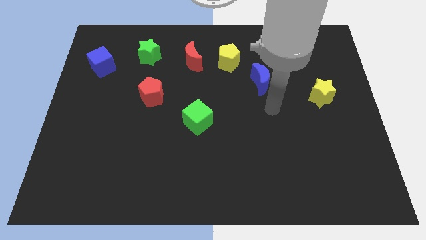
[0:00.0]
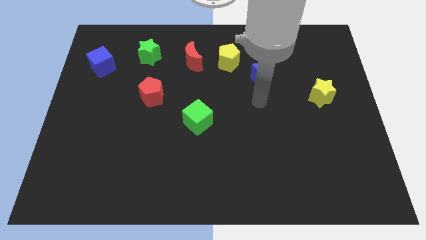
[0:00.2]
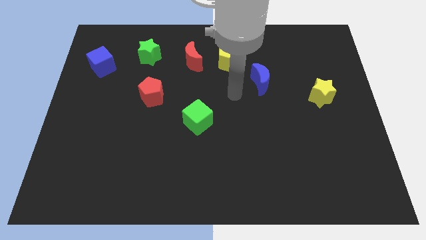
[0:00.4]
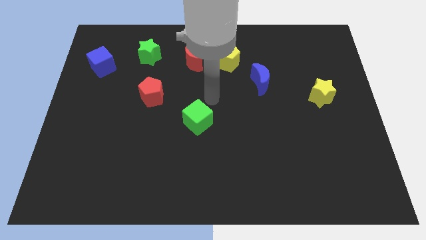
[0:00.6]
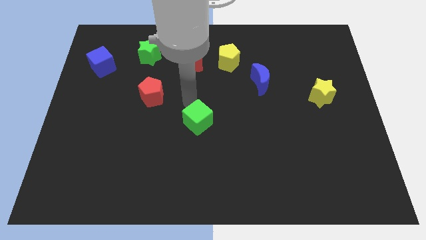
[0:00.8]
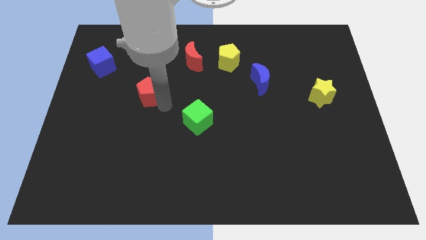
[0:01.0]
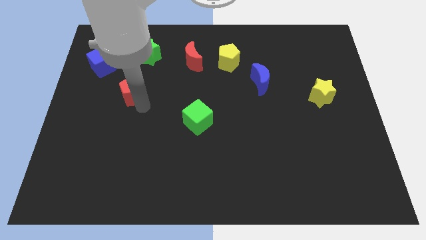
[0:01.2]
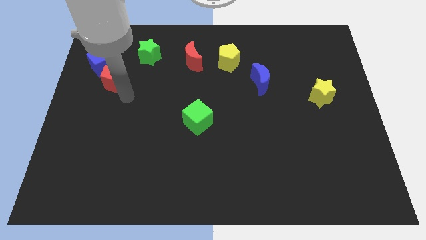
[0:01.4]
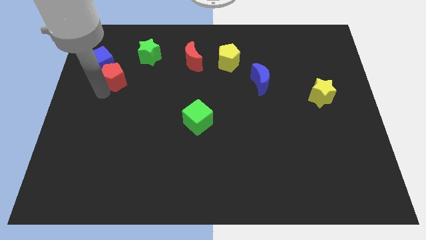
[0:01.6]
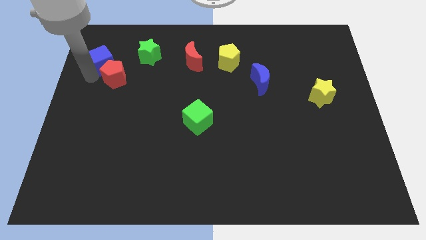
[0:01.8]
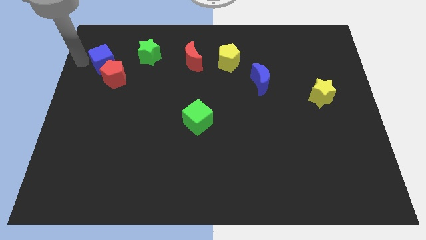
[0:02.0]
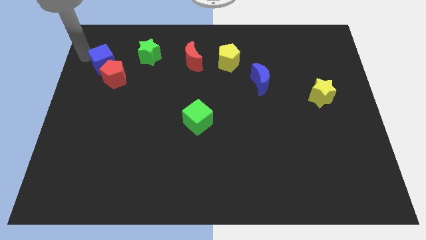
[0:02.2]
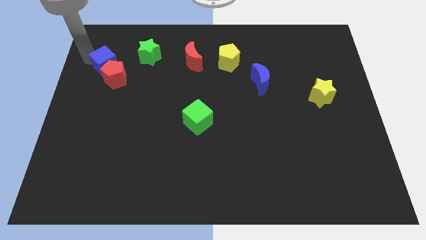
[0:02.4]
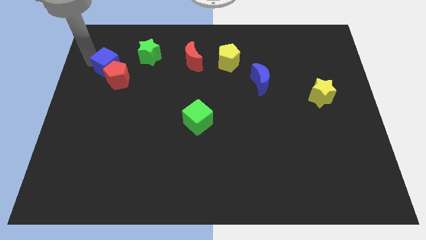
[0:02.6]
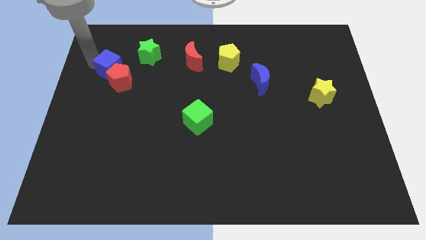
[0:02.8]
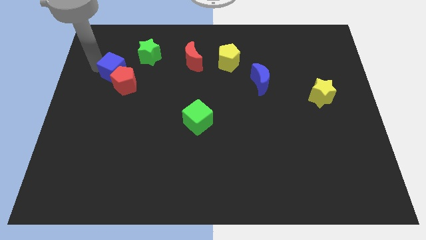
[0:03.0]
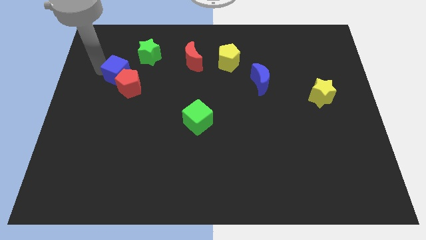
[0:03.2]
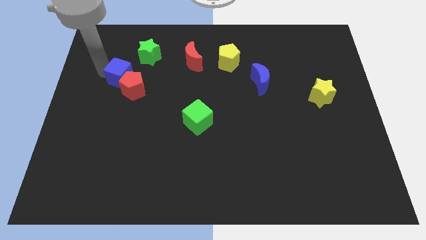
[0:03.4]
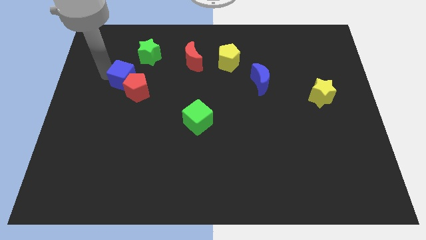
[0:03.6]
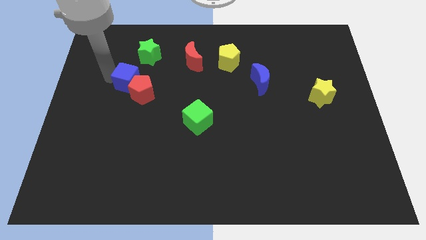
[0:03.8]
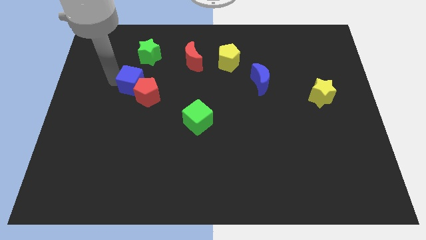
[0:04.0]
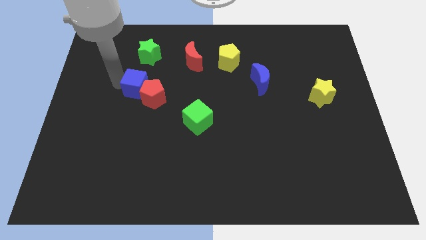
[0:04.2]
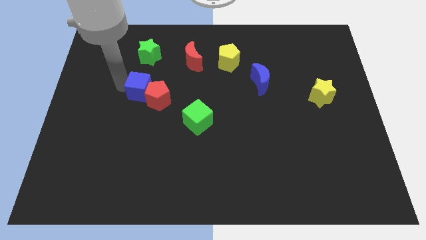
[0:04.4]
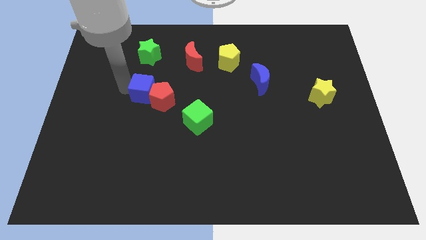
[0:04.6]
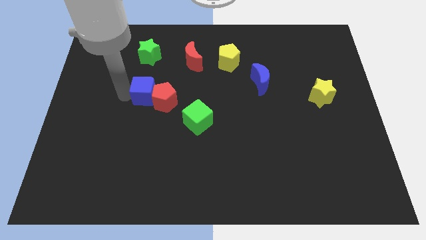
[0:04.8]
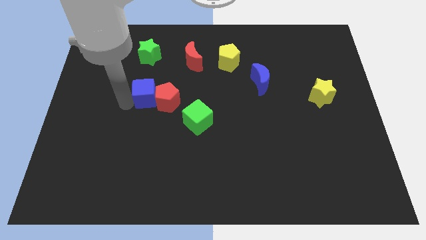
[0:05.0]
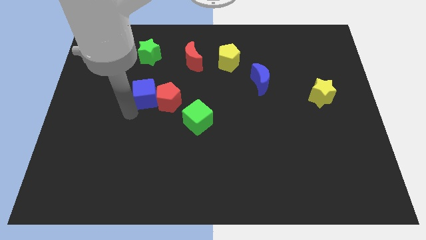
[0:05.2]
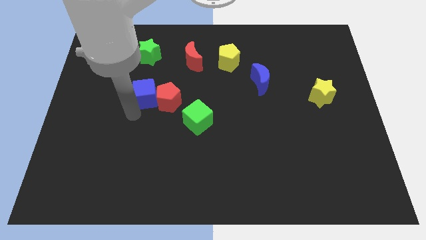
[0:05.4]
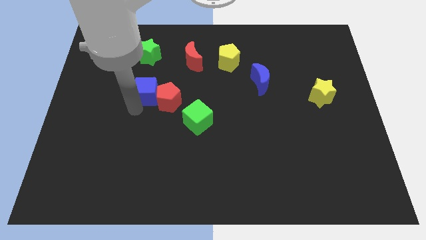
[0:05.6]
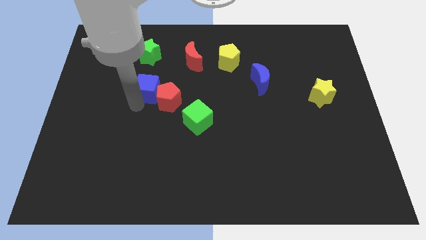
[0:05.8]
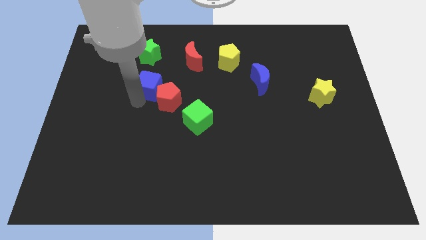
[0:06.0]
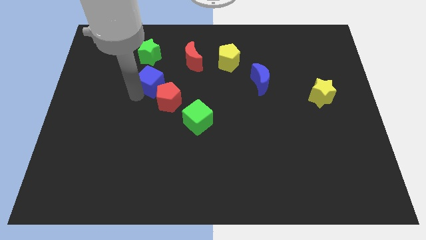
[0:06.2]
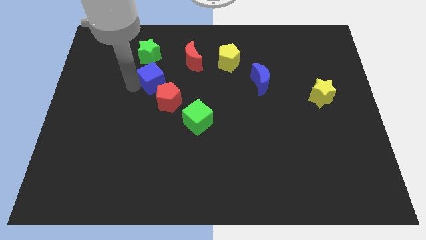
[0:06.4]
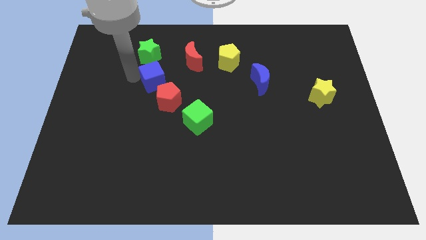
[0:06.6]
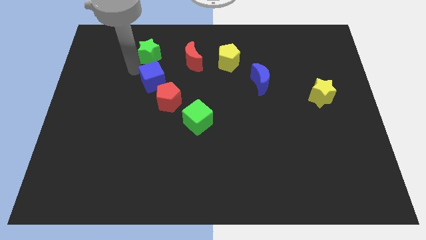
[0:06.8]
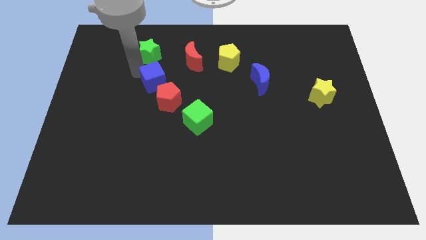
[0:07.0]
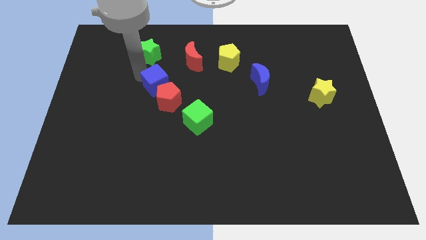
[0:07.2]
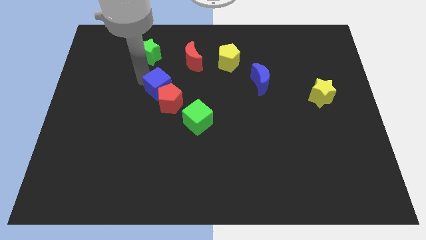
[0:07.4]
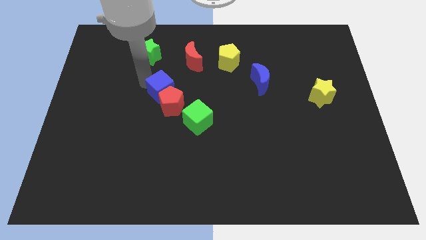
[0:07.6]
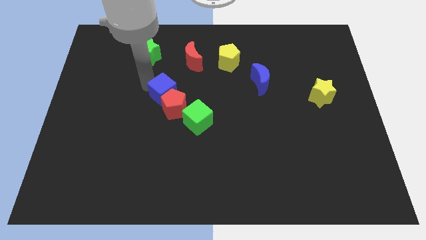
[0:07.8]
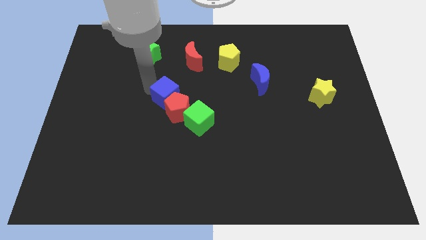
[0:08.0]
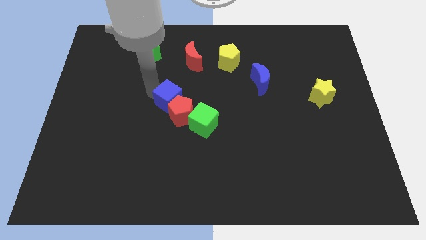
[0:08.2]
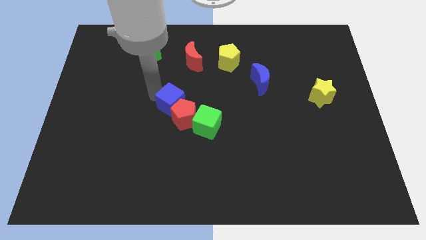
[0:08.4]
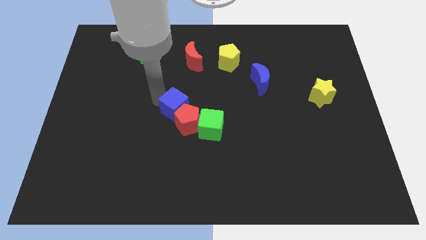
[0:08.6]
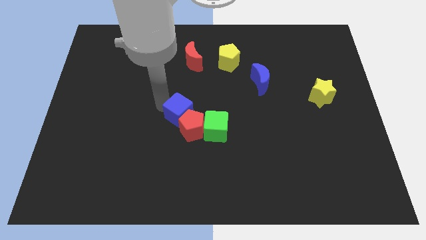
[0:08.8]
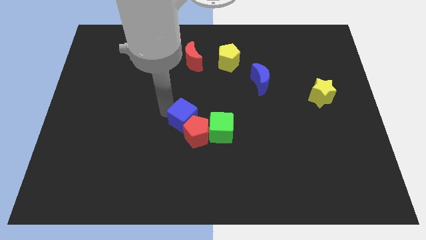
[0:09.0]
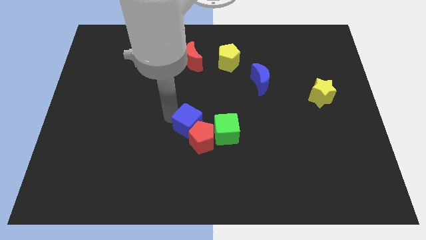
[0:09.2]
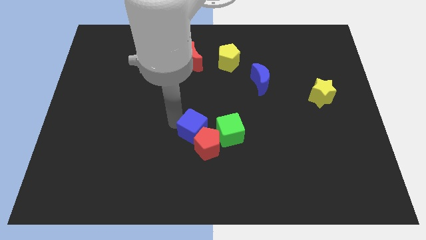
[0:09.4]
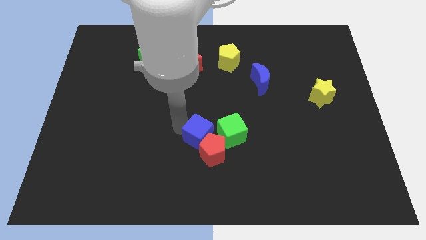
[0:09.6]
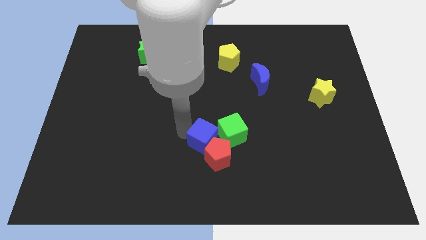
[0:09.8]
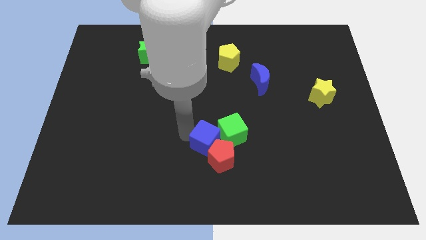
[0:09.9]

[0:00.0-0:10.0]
move the blue cube close to the green cube

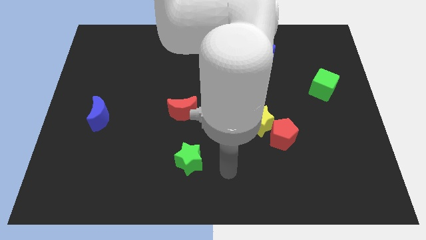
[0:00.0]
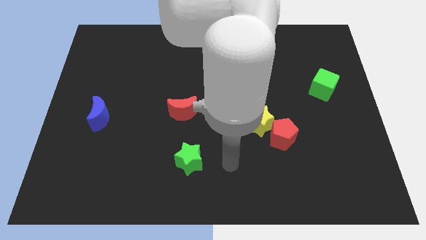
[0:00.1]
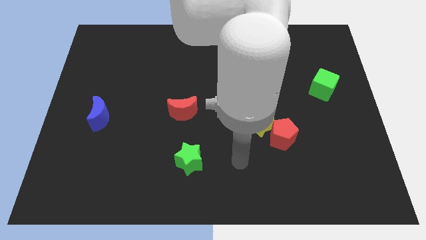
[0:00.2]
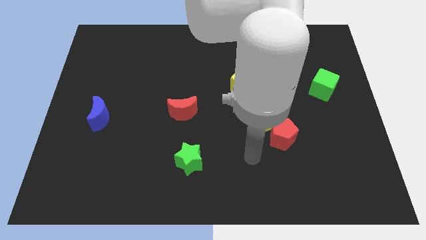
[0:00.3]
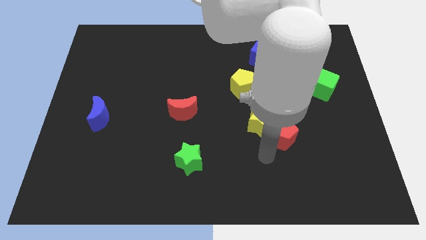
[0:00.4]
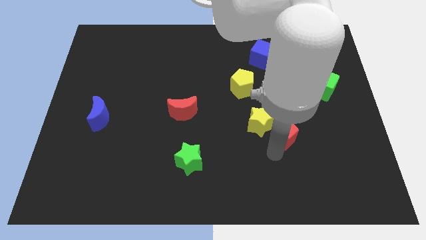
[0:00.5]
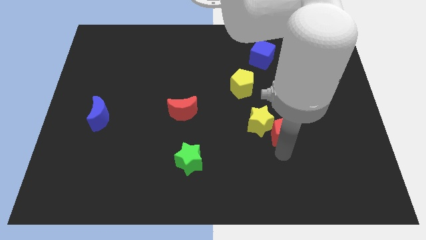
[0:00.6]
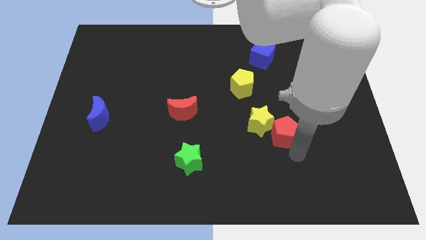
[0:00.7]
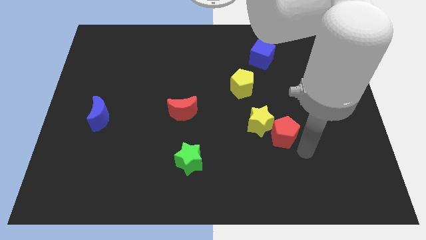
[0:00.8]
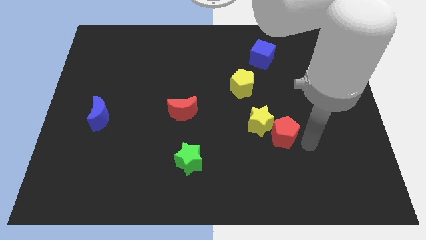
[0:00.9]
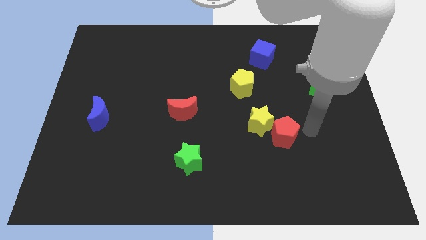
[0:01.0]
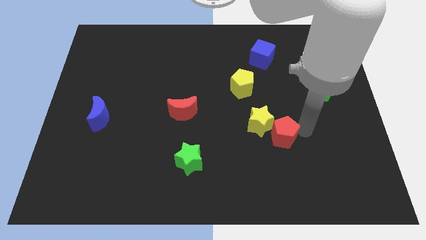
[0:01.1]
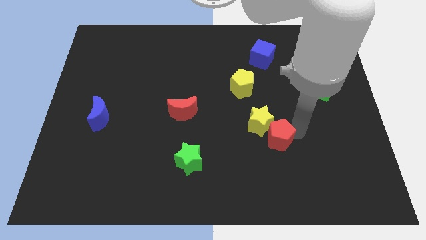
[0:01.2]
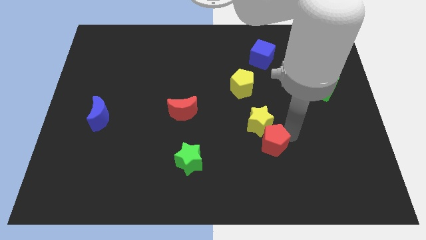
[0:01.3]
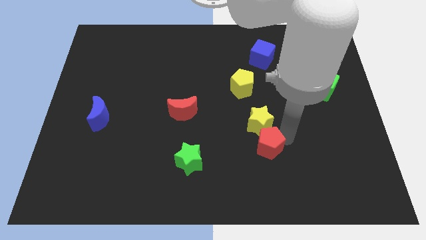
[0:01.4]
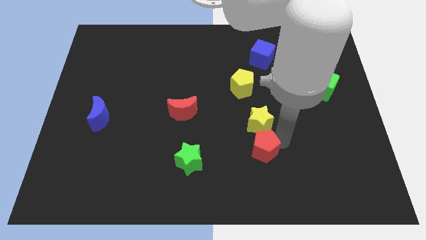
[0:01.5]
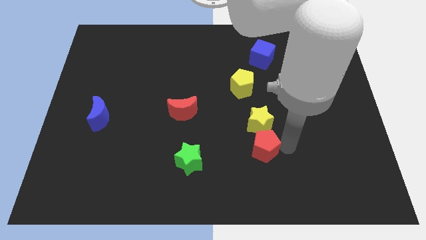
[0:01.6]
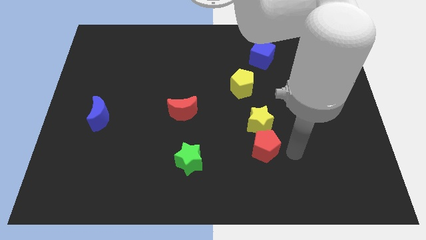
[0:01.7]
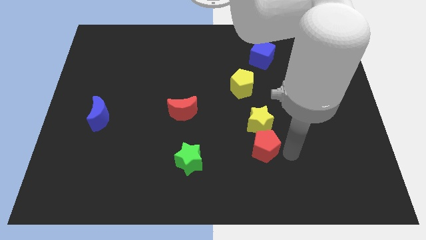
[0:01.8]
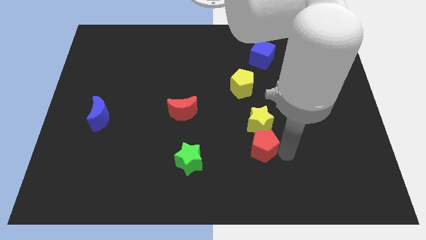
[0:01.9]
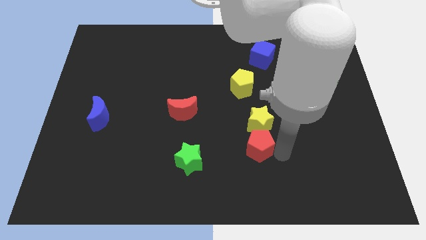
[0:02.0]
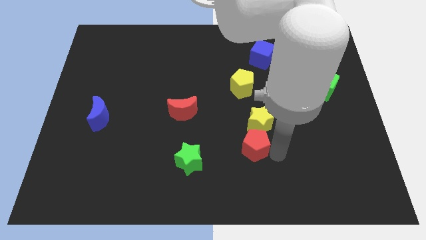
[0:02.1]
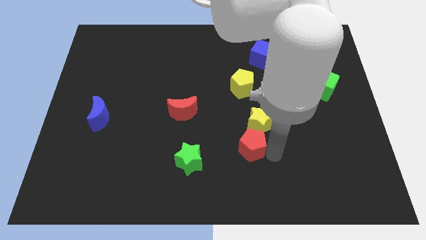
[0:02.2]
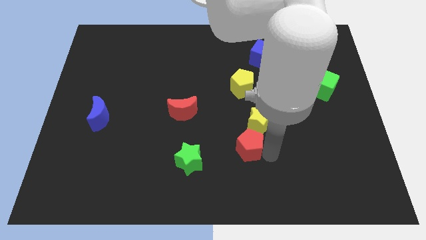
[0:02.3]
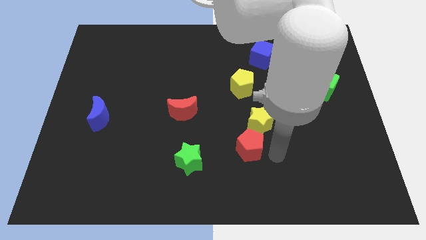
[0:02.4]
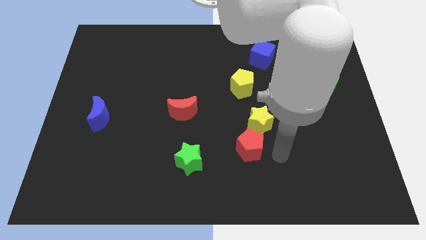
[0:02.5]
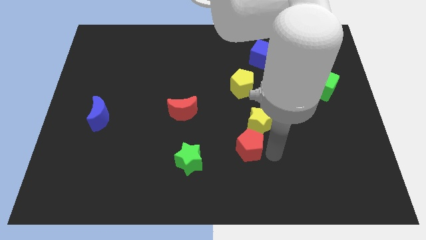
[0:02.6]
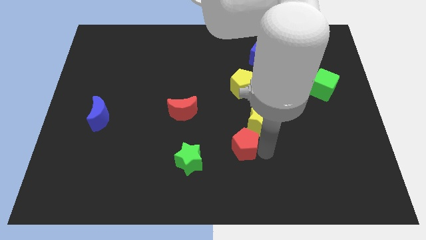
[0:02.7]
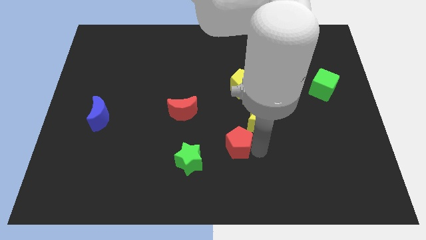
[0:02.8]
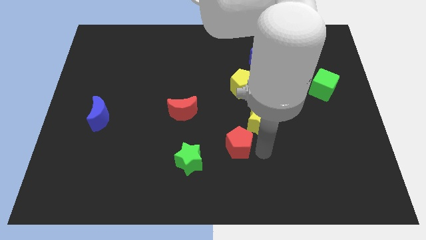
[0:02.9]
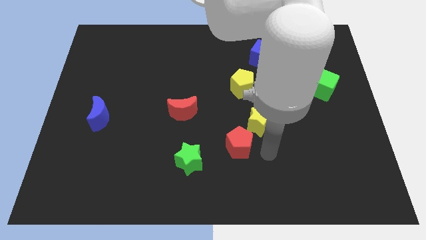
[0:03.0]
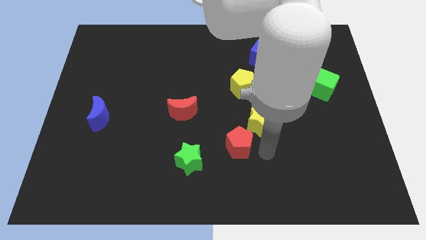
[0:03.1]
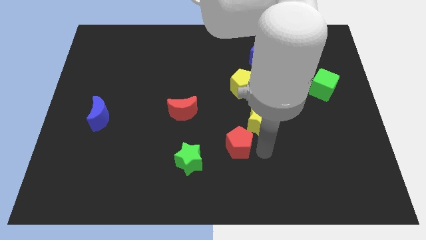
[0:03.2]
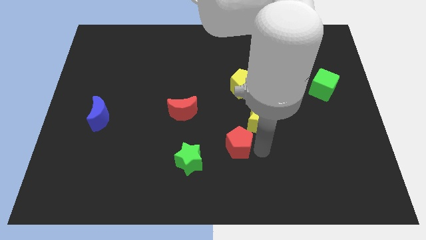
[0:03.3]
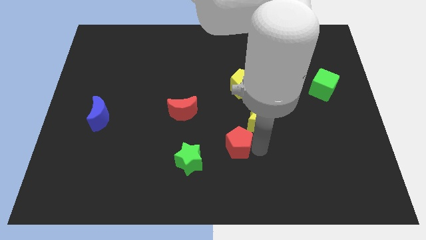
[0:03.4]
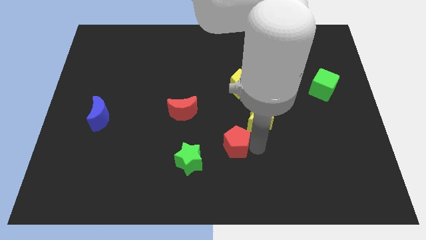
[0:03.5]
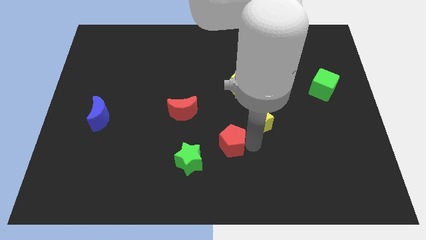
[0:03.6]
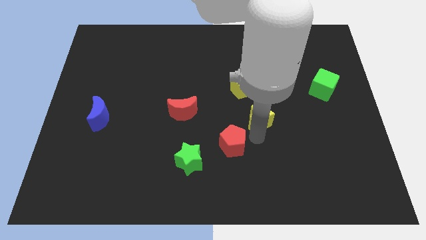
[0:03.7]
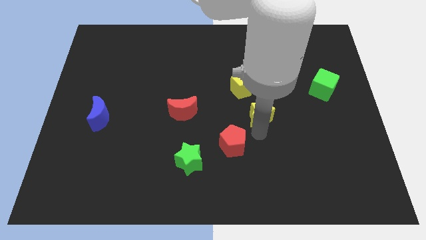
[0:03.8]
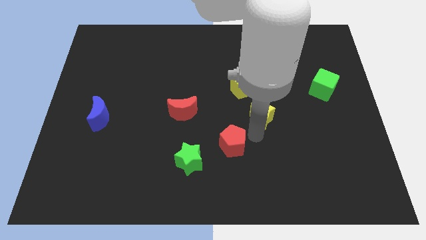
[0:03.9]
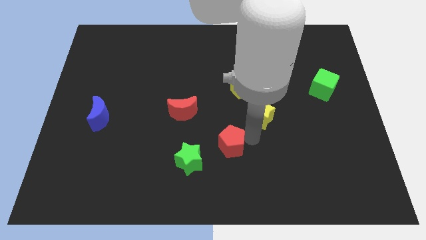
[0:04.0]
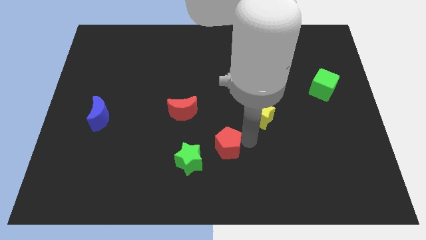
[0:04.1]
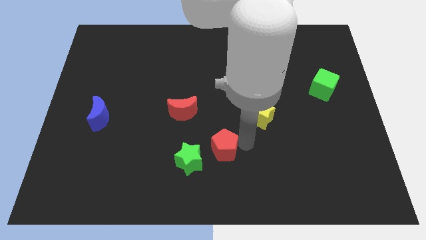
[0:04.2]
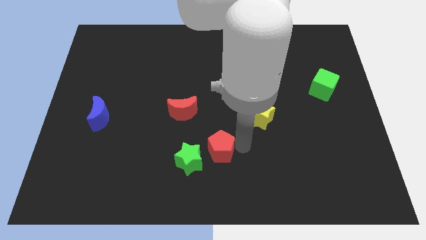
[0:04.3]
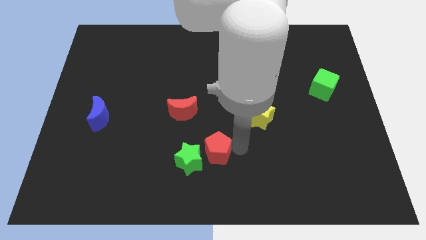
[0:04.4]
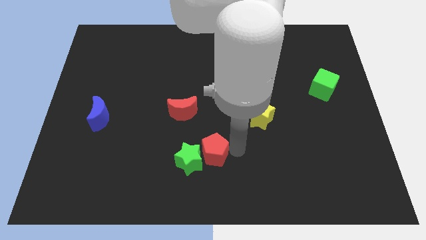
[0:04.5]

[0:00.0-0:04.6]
slide the red pentagon towards the green star
